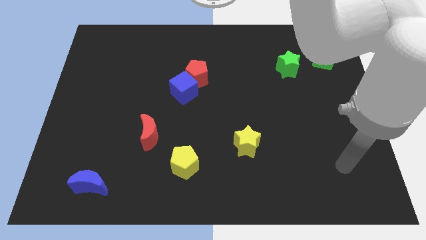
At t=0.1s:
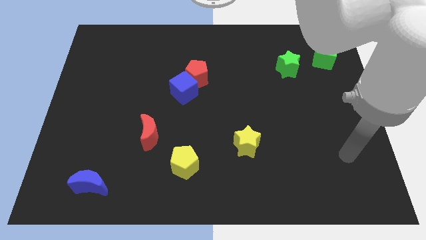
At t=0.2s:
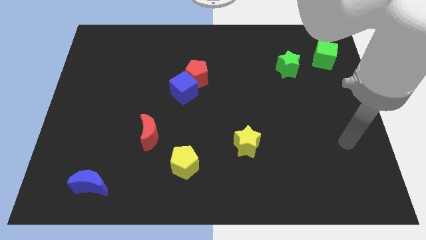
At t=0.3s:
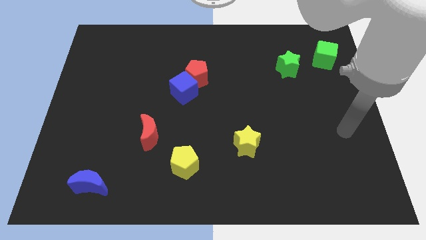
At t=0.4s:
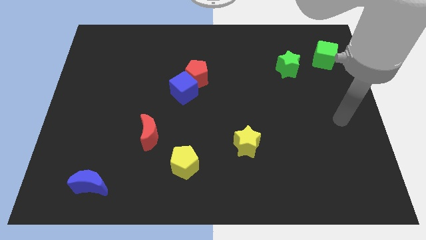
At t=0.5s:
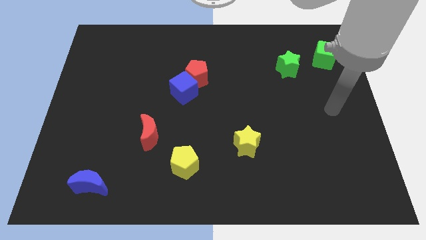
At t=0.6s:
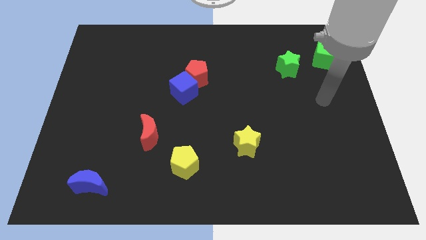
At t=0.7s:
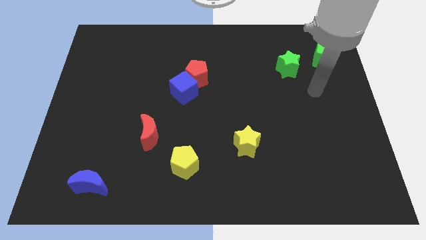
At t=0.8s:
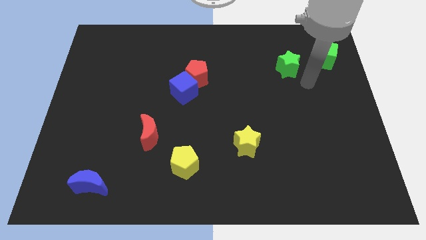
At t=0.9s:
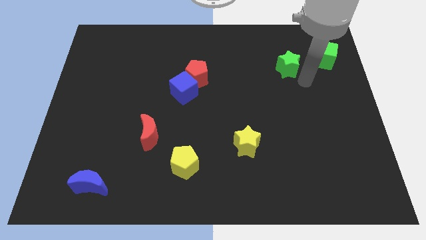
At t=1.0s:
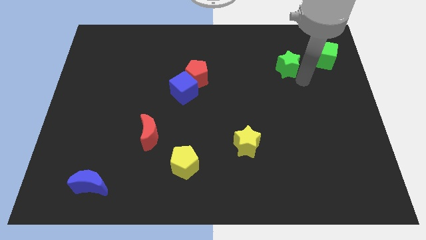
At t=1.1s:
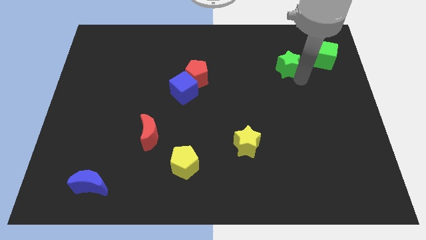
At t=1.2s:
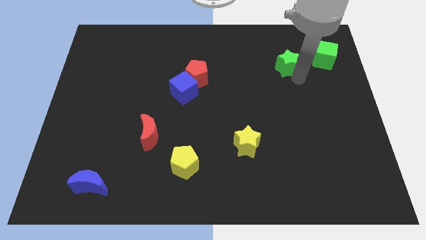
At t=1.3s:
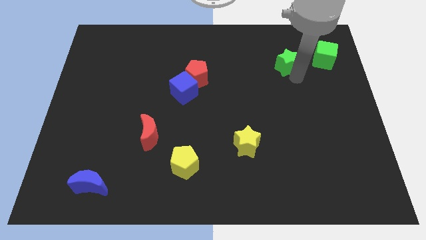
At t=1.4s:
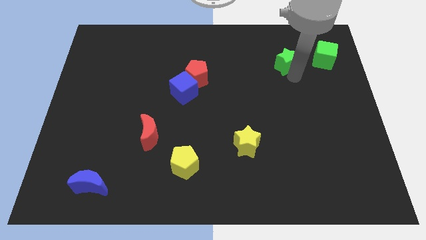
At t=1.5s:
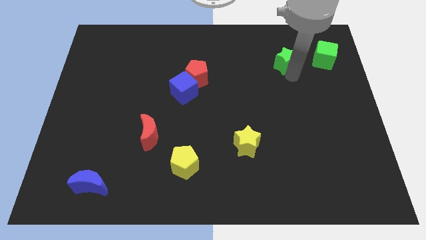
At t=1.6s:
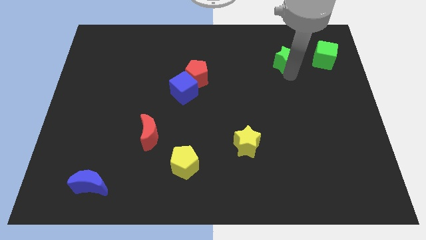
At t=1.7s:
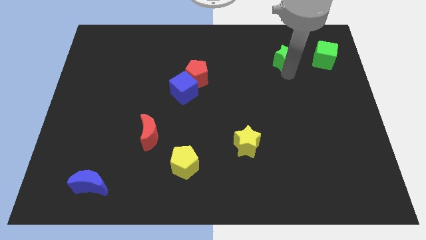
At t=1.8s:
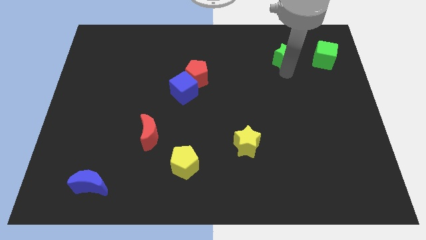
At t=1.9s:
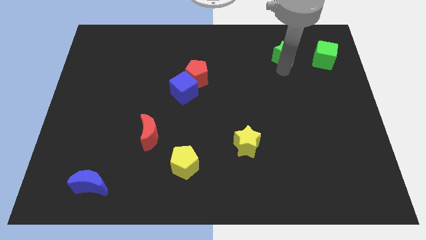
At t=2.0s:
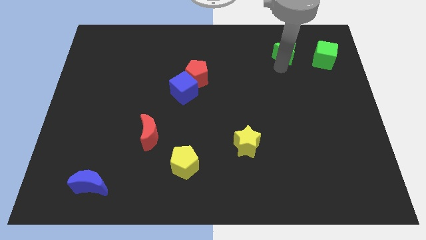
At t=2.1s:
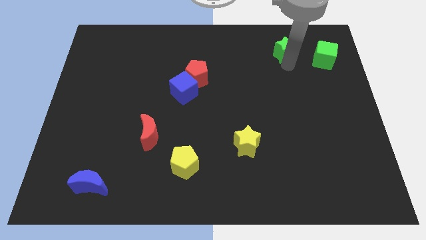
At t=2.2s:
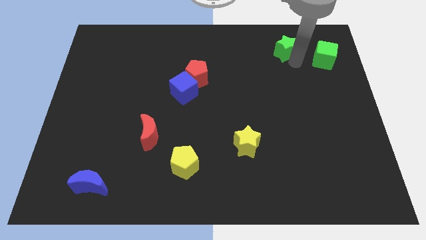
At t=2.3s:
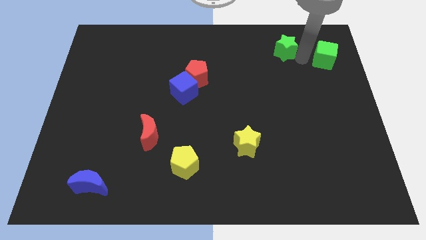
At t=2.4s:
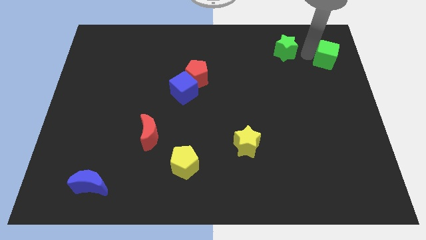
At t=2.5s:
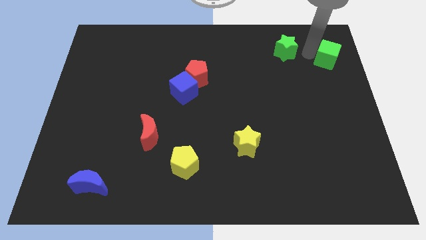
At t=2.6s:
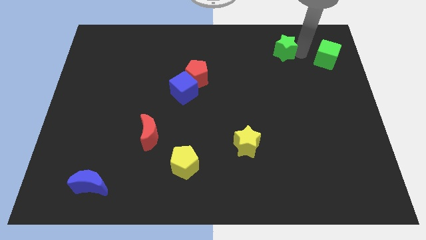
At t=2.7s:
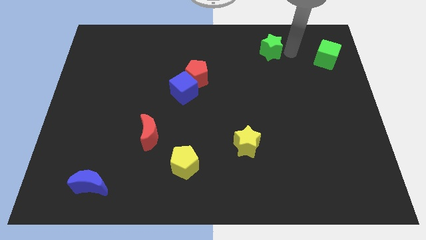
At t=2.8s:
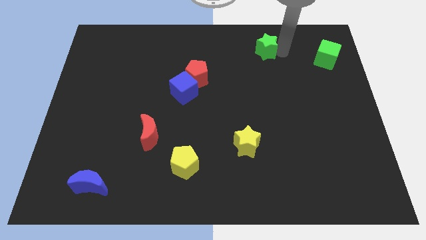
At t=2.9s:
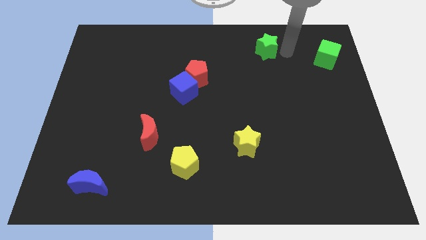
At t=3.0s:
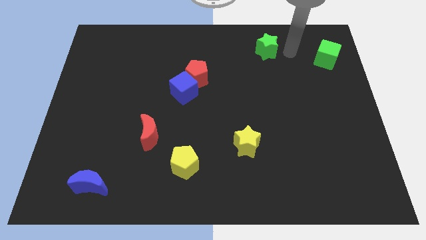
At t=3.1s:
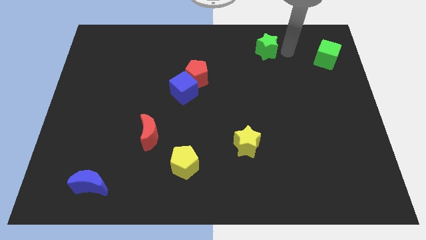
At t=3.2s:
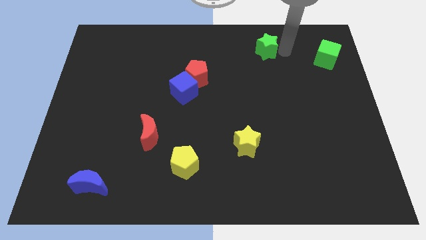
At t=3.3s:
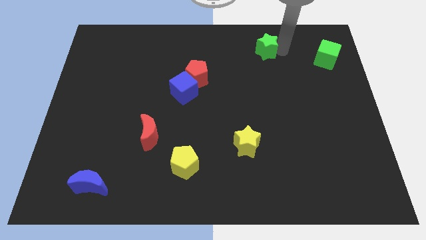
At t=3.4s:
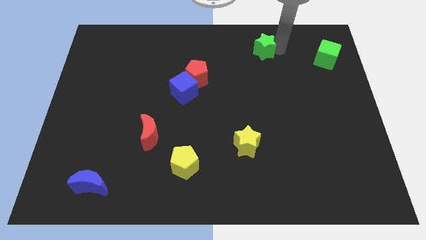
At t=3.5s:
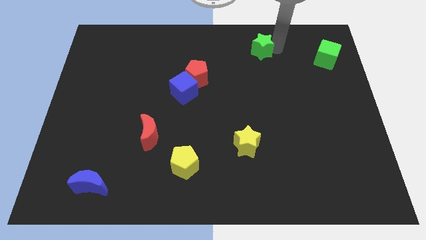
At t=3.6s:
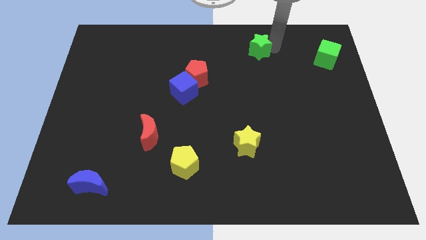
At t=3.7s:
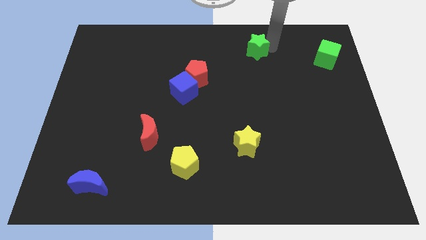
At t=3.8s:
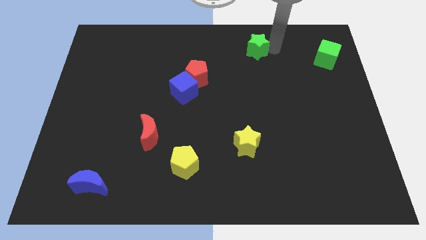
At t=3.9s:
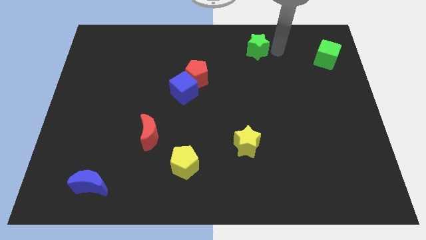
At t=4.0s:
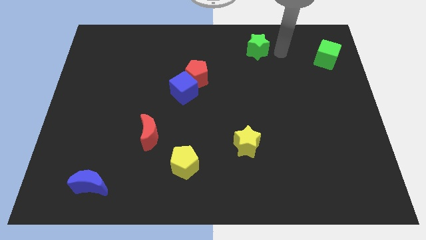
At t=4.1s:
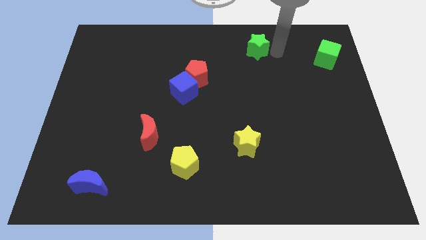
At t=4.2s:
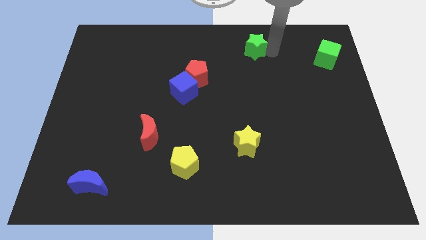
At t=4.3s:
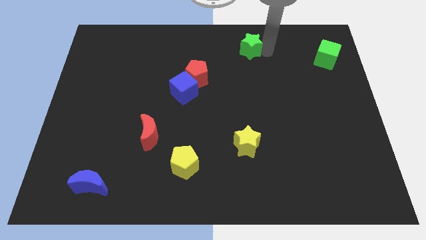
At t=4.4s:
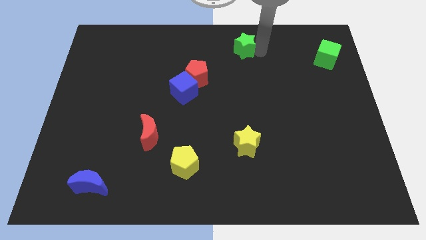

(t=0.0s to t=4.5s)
put the green star to the towards your base

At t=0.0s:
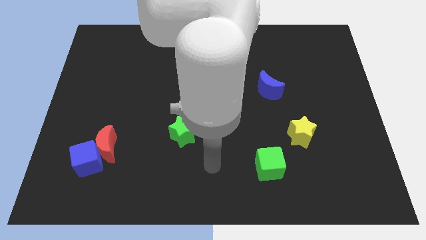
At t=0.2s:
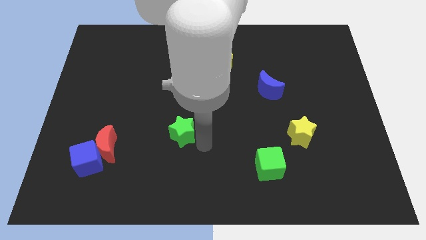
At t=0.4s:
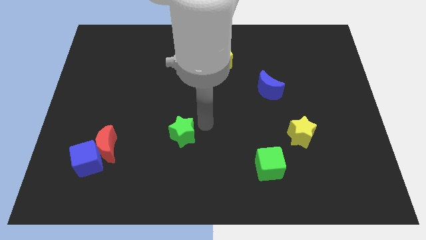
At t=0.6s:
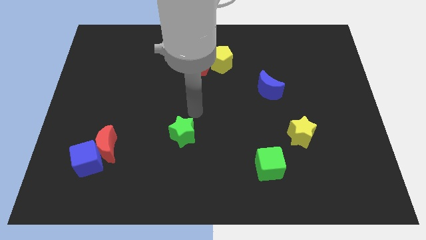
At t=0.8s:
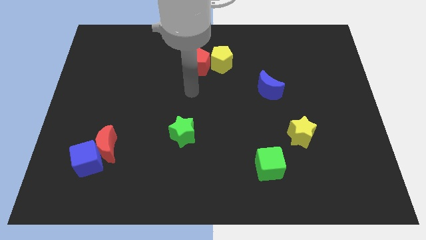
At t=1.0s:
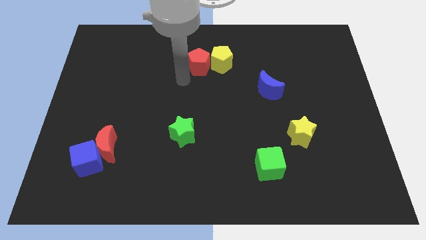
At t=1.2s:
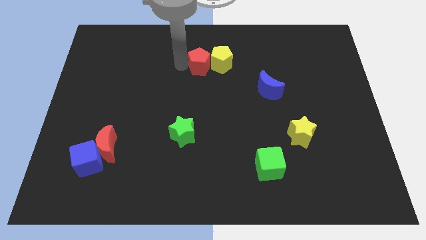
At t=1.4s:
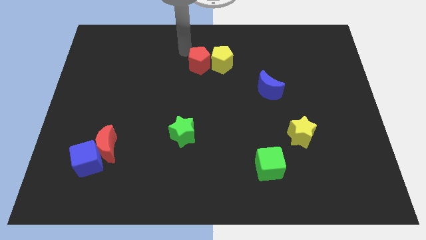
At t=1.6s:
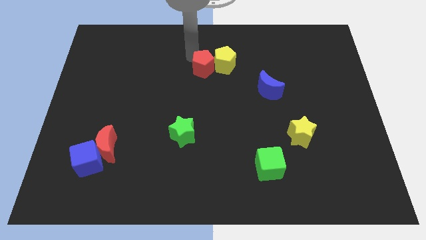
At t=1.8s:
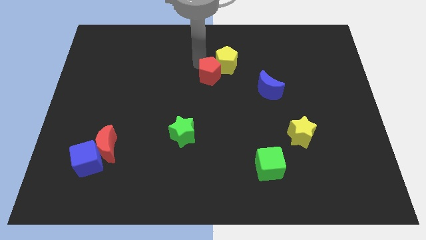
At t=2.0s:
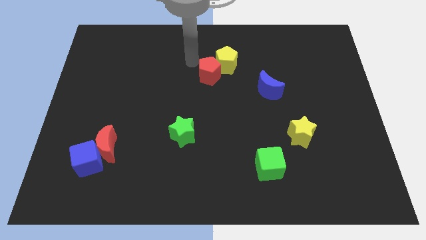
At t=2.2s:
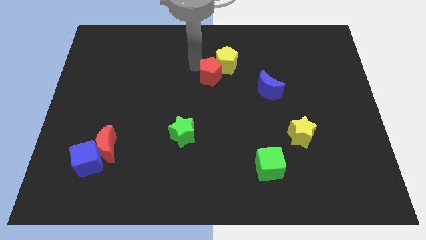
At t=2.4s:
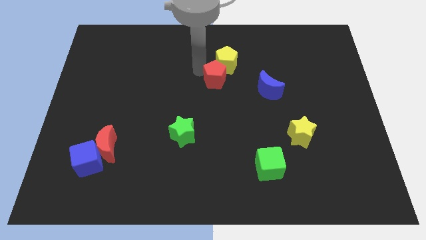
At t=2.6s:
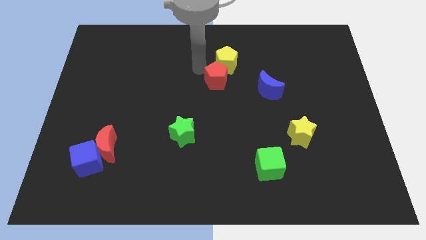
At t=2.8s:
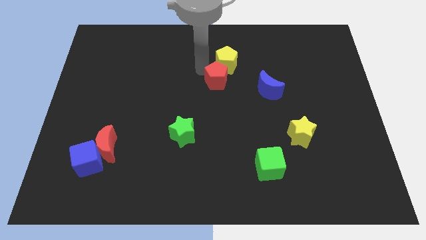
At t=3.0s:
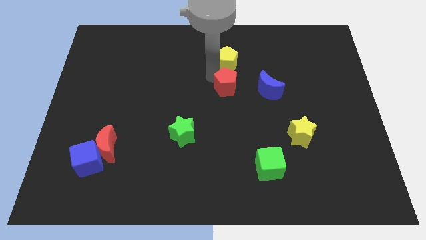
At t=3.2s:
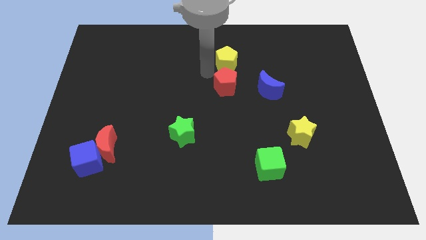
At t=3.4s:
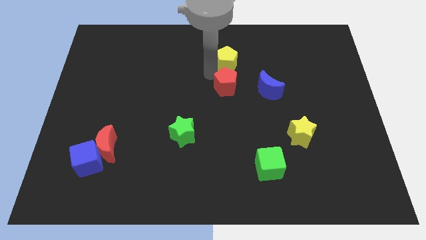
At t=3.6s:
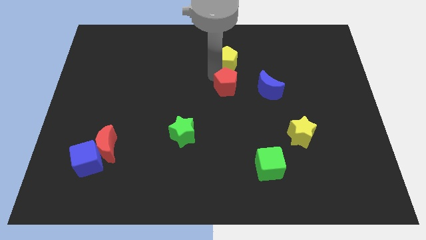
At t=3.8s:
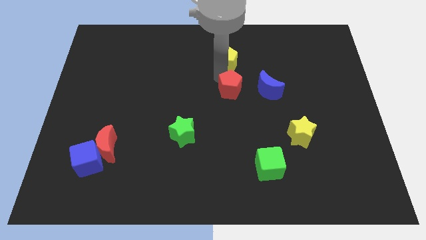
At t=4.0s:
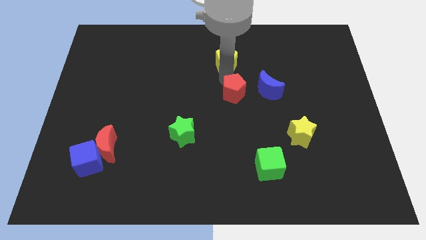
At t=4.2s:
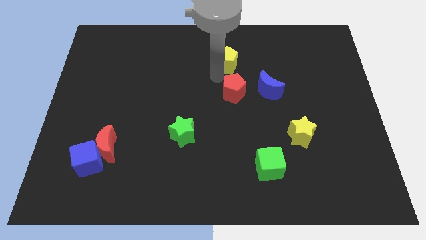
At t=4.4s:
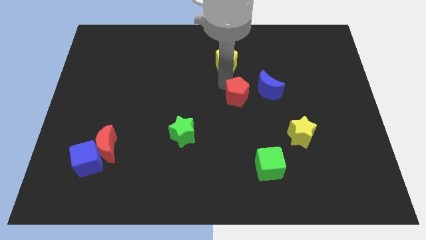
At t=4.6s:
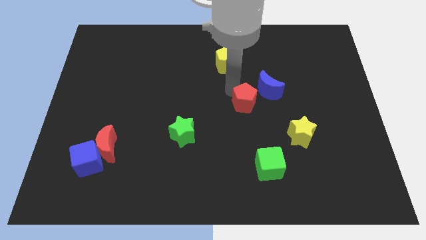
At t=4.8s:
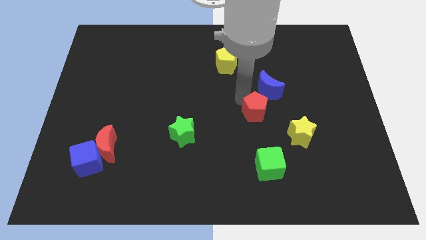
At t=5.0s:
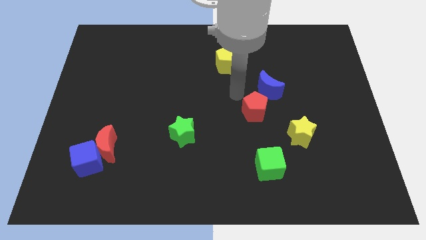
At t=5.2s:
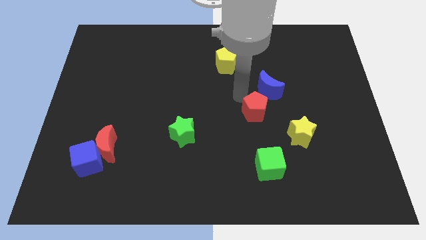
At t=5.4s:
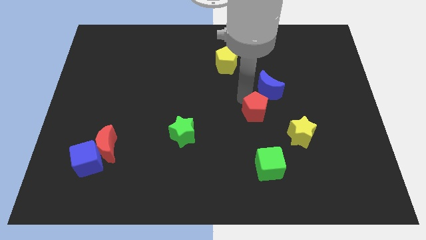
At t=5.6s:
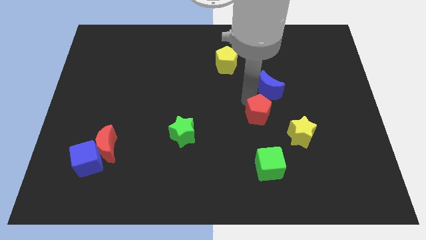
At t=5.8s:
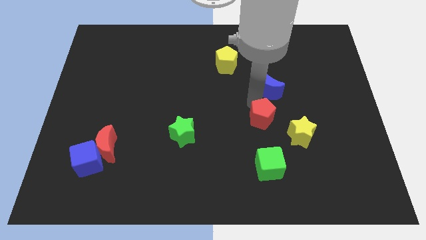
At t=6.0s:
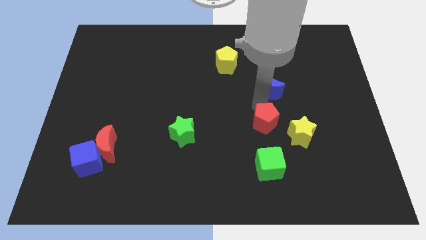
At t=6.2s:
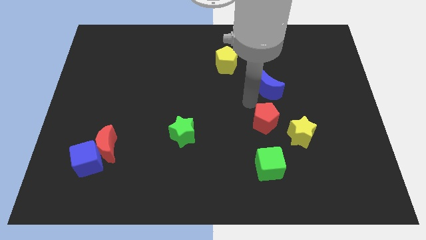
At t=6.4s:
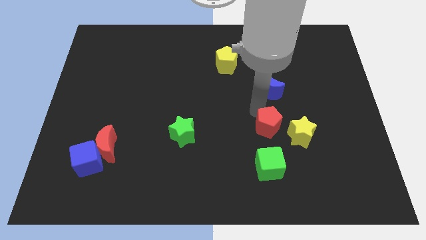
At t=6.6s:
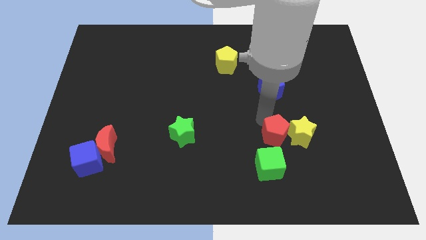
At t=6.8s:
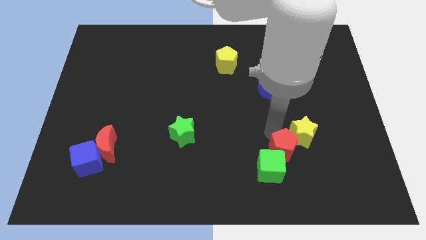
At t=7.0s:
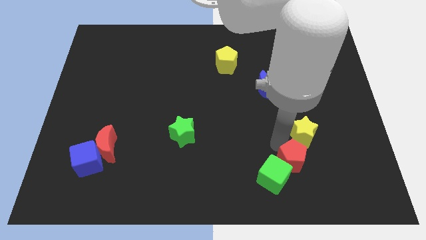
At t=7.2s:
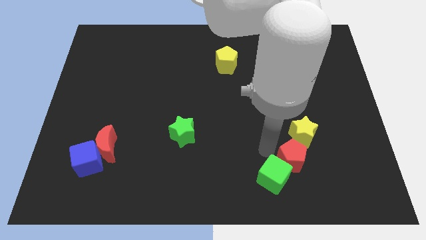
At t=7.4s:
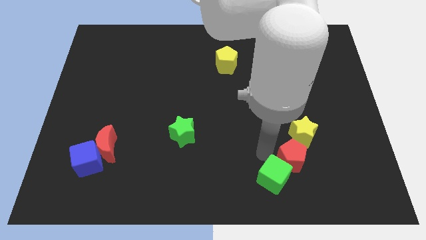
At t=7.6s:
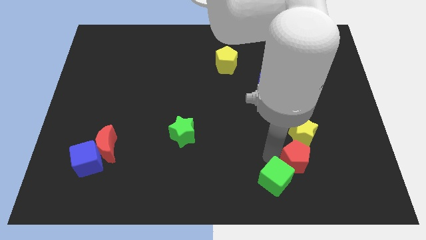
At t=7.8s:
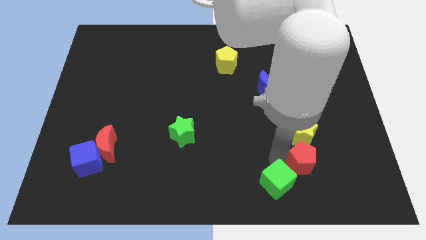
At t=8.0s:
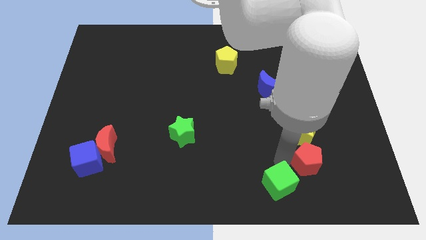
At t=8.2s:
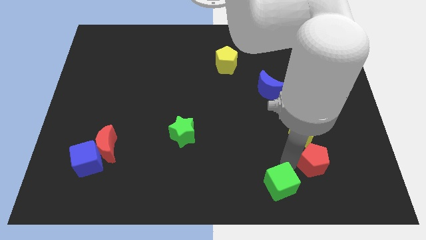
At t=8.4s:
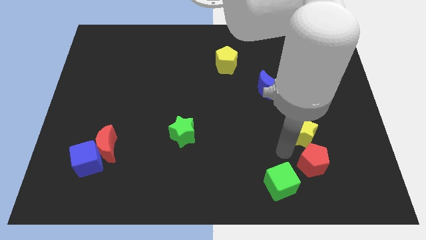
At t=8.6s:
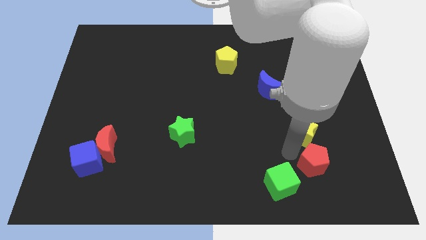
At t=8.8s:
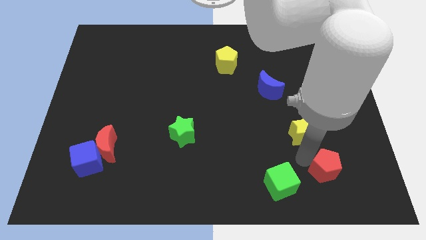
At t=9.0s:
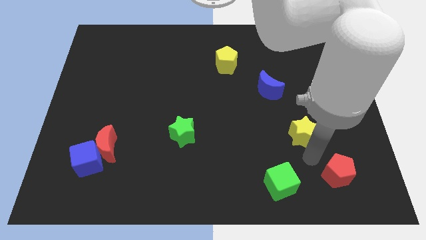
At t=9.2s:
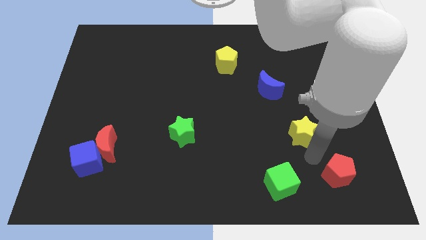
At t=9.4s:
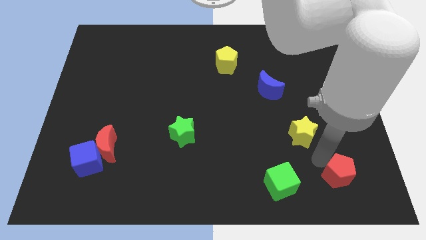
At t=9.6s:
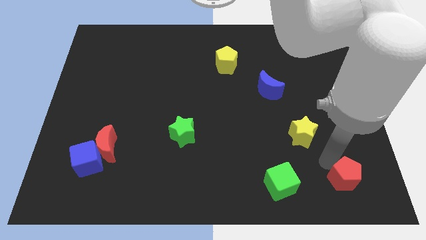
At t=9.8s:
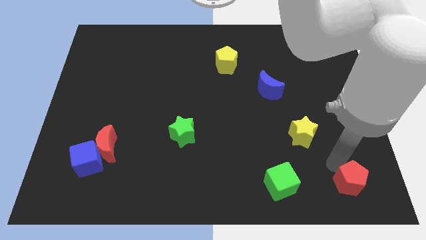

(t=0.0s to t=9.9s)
put the red pentagon to the bottom right corner
